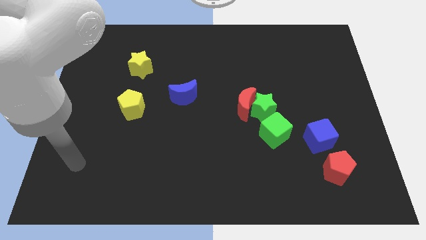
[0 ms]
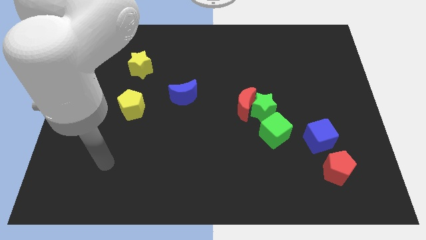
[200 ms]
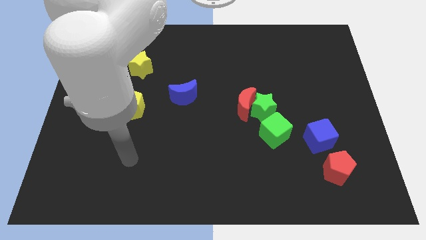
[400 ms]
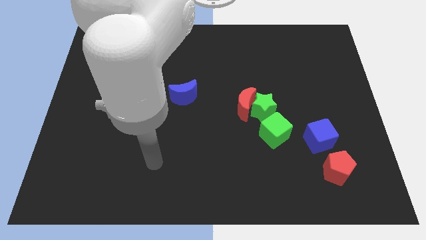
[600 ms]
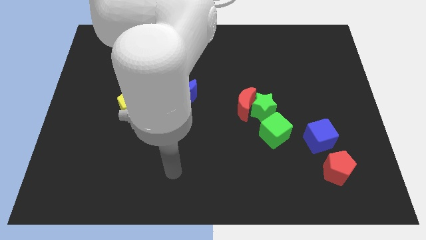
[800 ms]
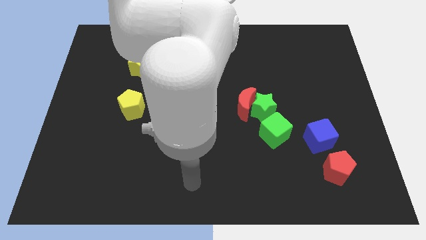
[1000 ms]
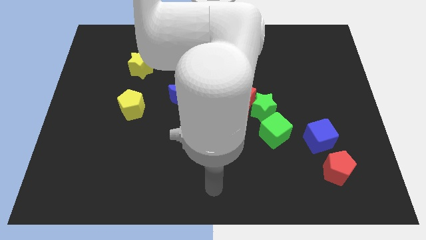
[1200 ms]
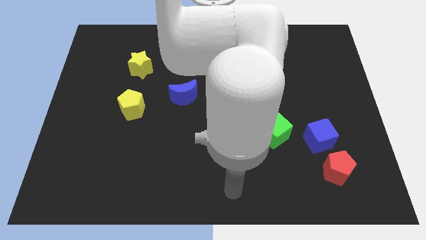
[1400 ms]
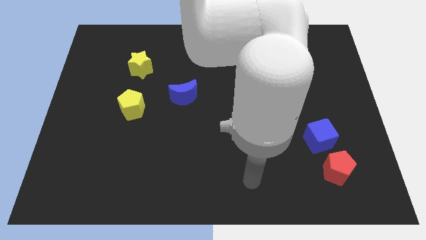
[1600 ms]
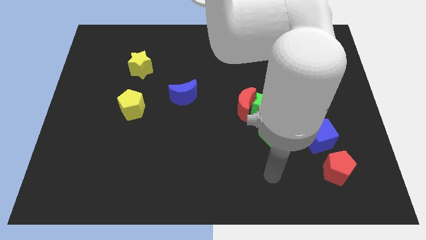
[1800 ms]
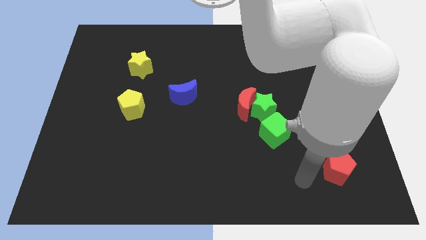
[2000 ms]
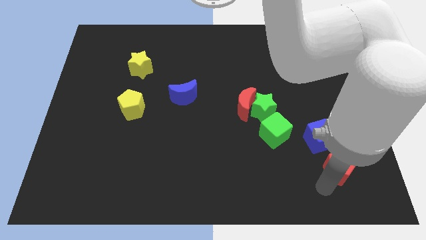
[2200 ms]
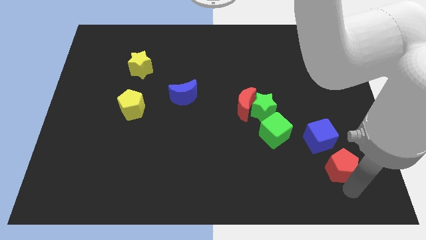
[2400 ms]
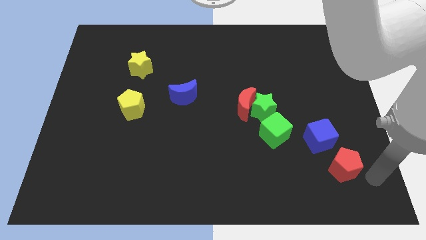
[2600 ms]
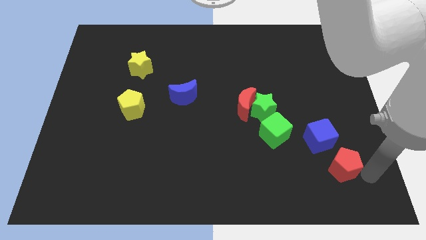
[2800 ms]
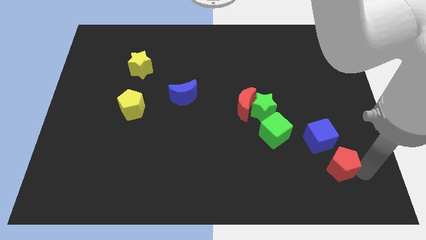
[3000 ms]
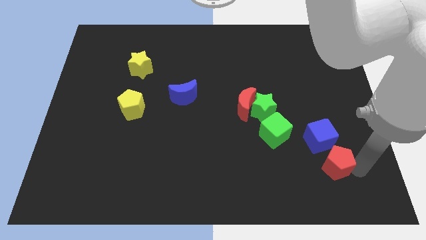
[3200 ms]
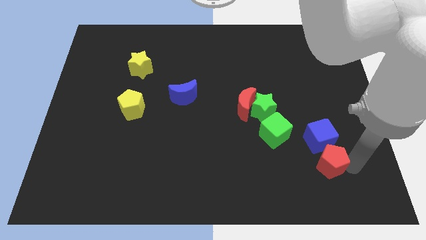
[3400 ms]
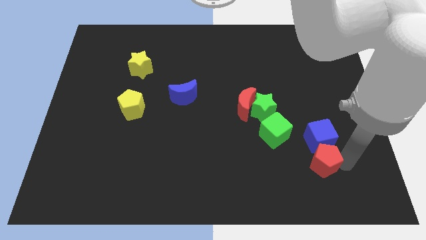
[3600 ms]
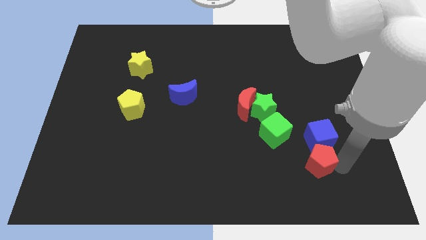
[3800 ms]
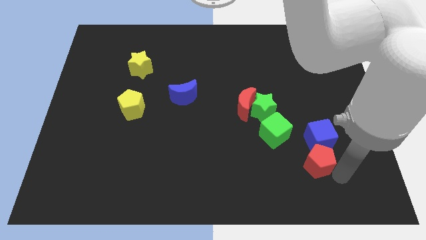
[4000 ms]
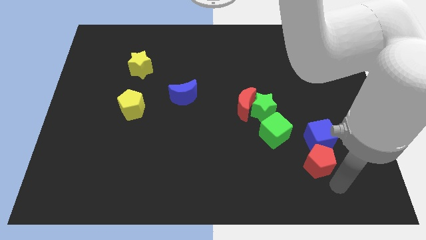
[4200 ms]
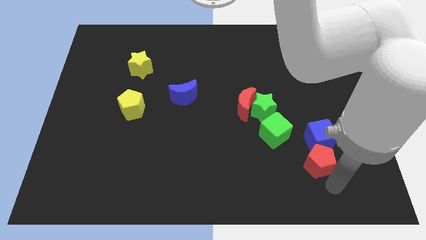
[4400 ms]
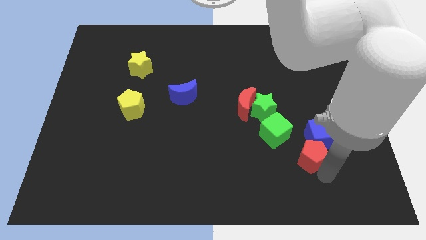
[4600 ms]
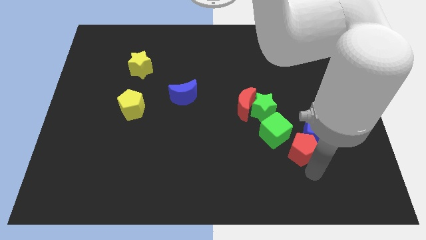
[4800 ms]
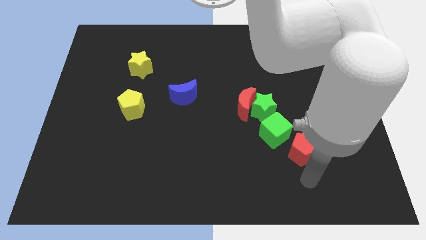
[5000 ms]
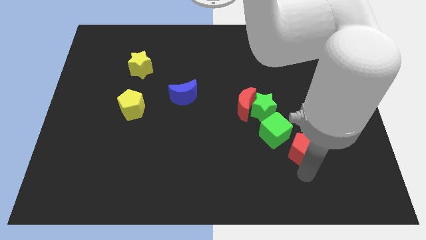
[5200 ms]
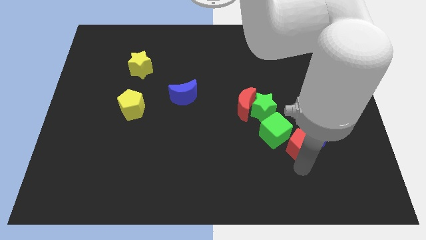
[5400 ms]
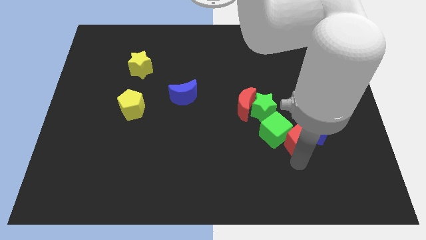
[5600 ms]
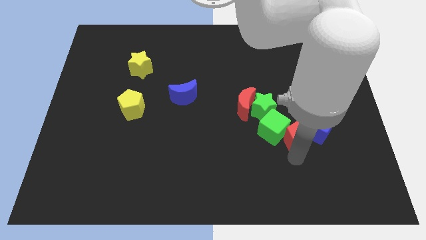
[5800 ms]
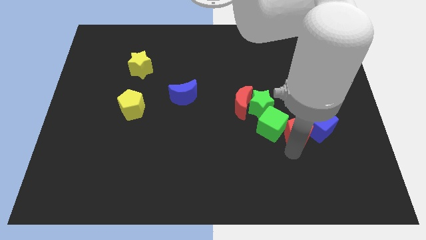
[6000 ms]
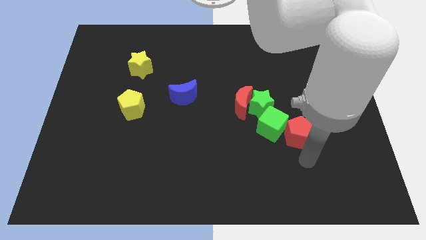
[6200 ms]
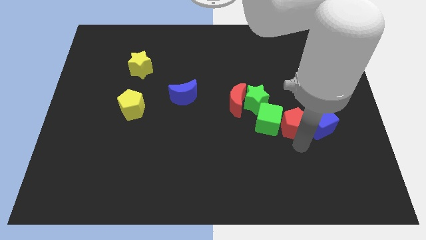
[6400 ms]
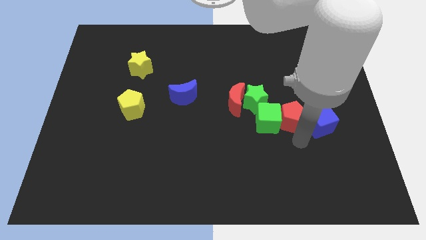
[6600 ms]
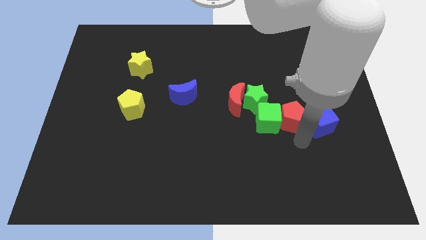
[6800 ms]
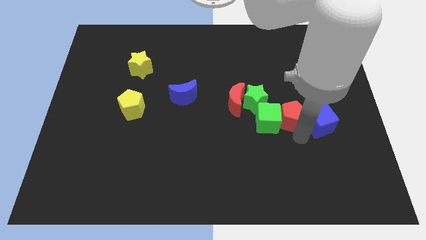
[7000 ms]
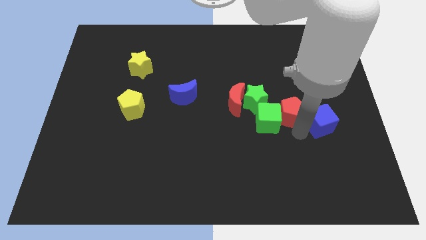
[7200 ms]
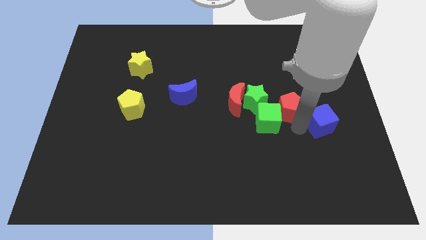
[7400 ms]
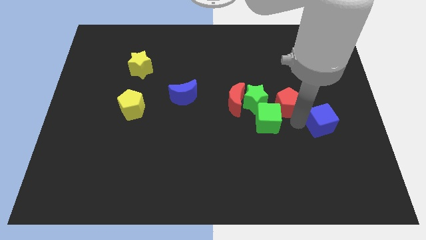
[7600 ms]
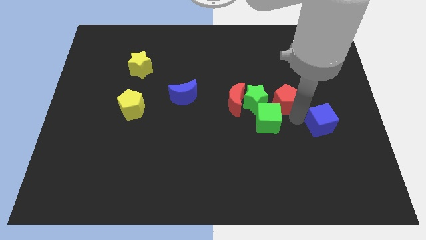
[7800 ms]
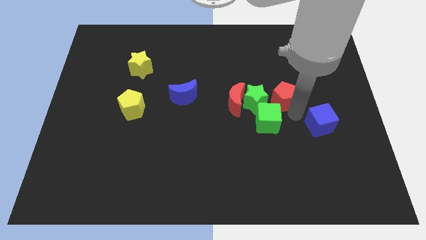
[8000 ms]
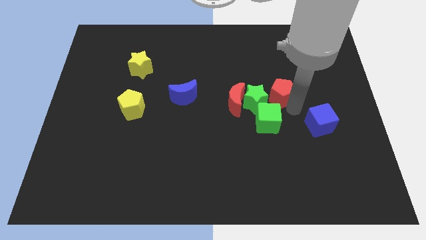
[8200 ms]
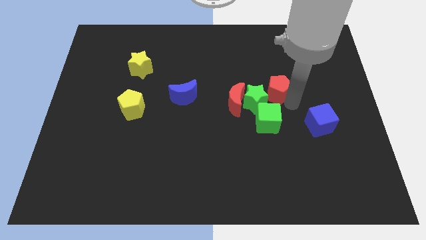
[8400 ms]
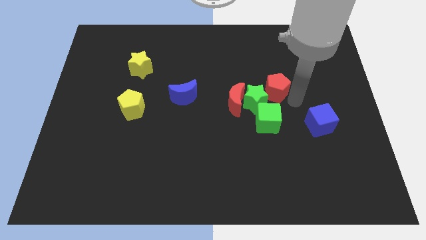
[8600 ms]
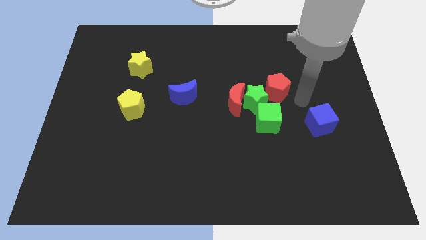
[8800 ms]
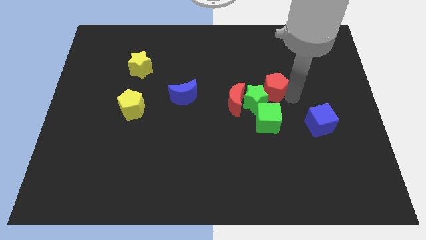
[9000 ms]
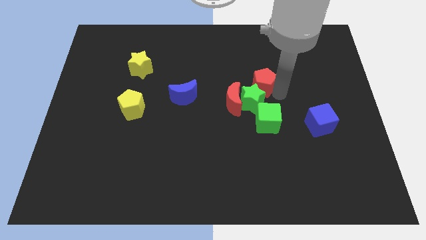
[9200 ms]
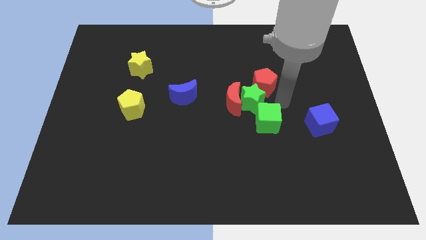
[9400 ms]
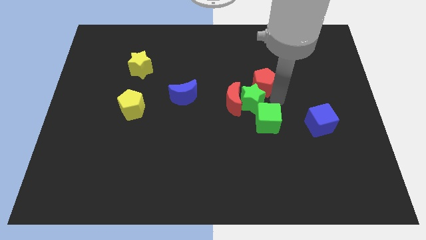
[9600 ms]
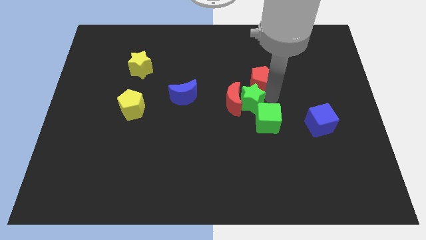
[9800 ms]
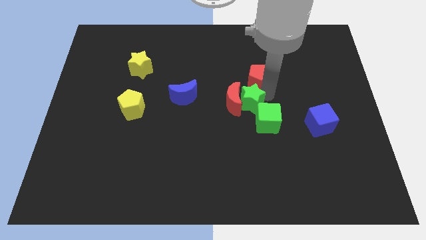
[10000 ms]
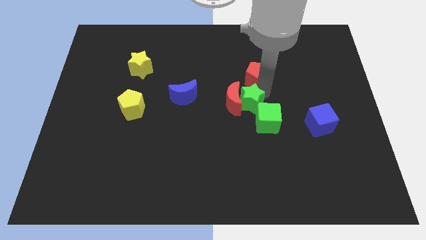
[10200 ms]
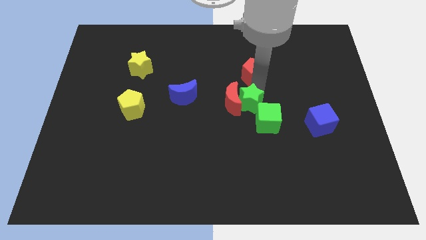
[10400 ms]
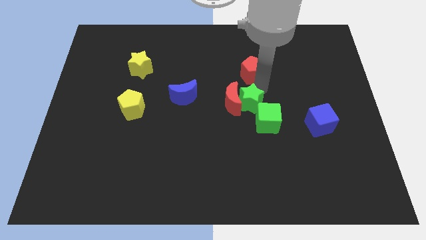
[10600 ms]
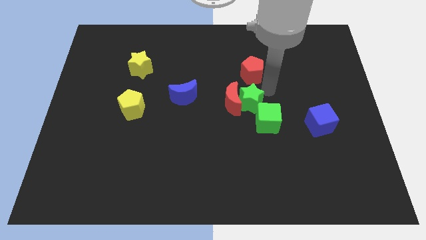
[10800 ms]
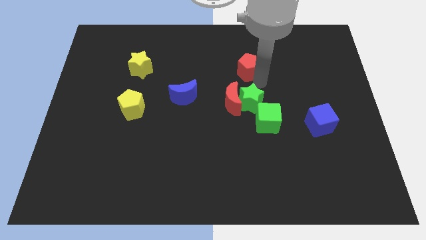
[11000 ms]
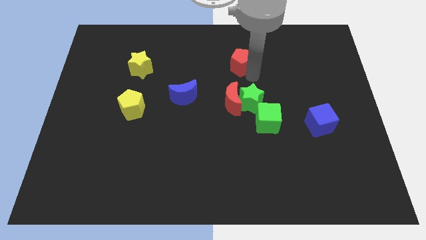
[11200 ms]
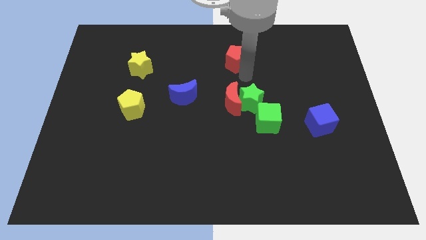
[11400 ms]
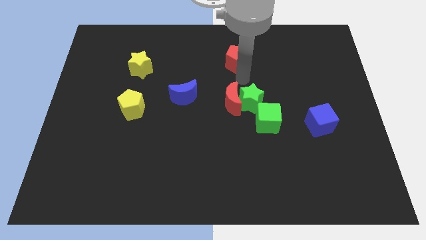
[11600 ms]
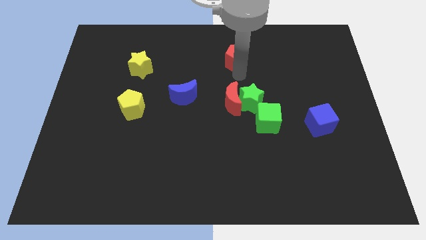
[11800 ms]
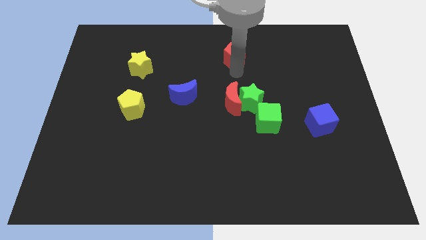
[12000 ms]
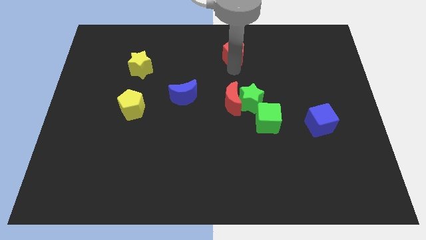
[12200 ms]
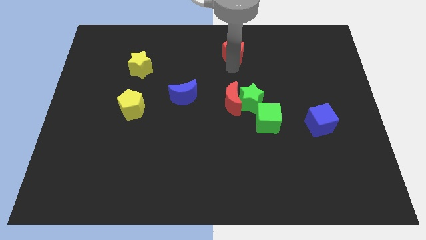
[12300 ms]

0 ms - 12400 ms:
move the red pentagon to the top

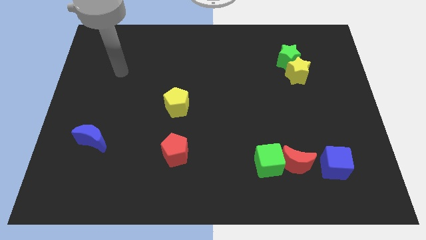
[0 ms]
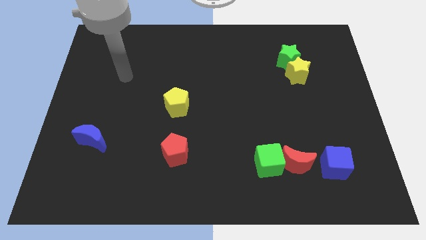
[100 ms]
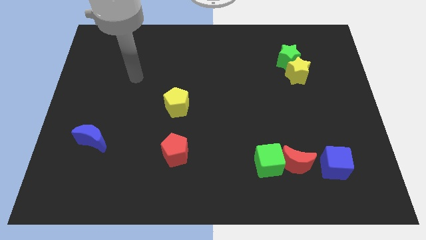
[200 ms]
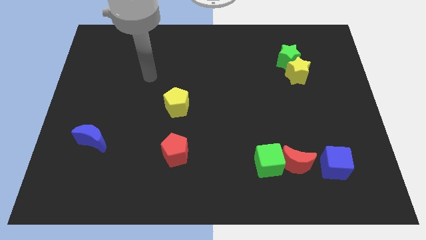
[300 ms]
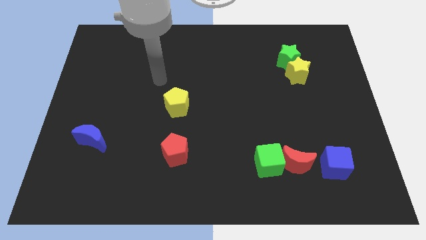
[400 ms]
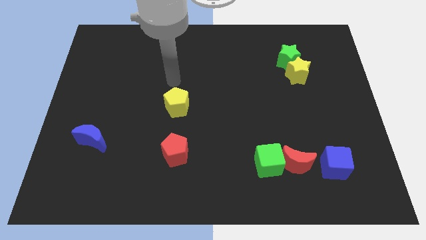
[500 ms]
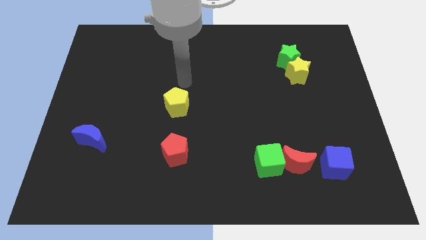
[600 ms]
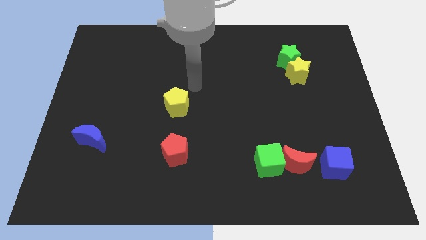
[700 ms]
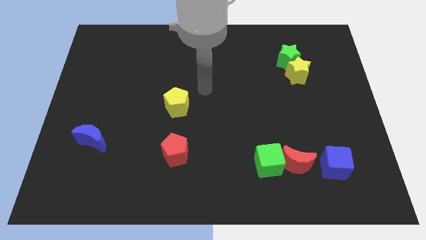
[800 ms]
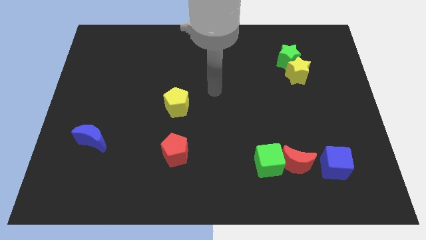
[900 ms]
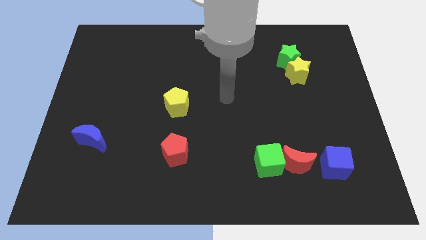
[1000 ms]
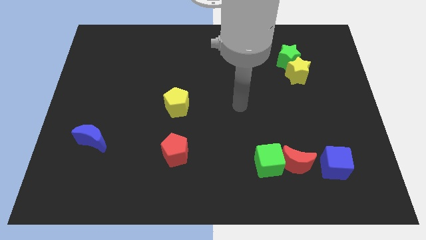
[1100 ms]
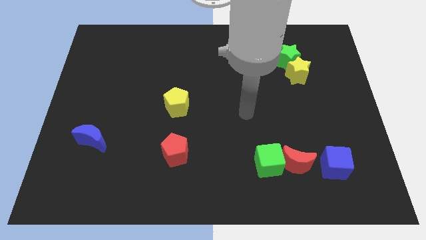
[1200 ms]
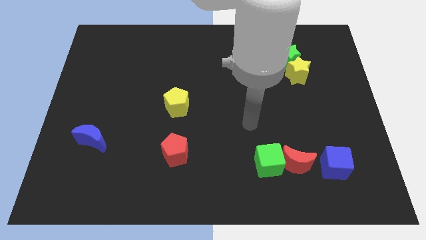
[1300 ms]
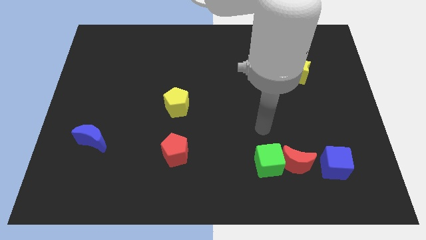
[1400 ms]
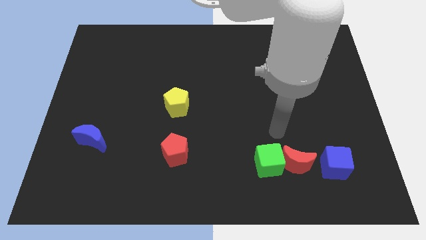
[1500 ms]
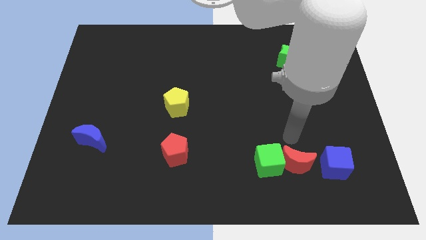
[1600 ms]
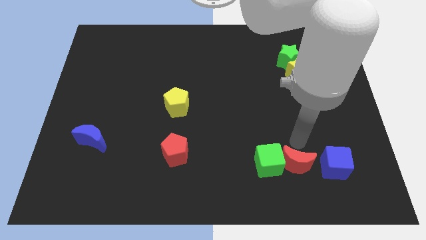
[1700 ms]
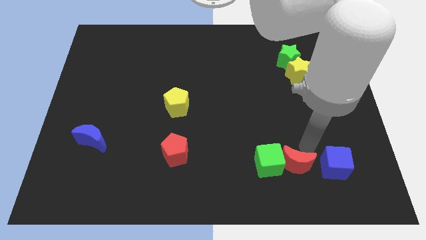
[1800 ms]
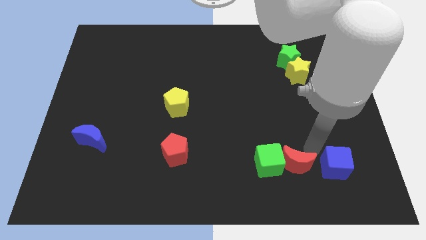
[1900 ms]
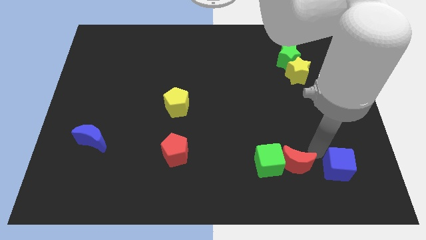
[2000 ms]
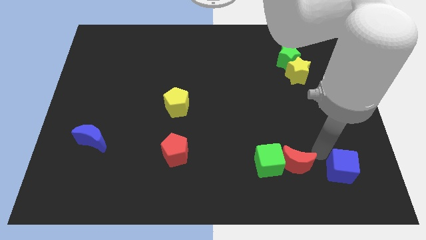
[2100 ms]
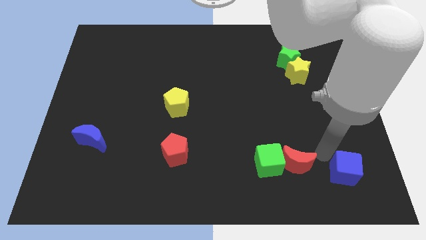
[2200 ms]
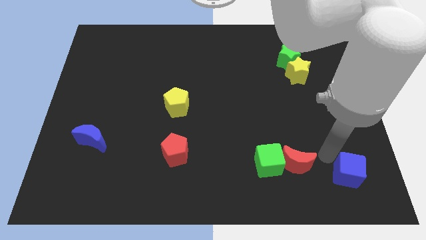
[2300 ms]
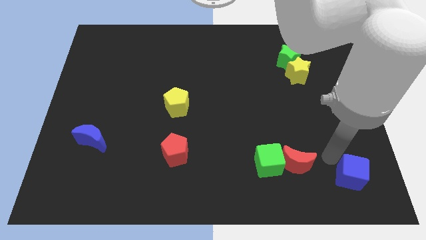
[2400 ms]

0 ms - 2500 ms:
slide the blue cube to the bottom right of the board
